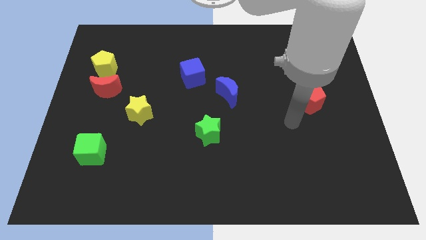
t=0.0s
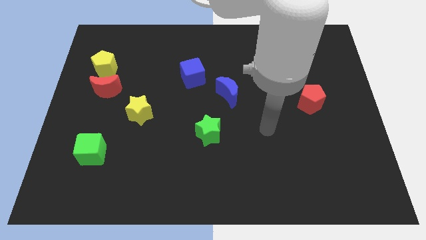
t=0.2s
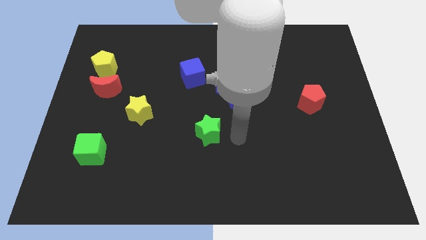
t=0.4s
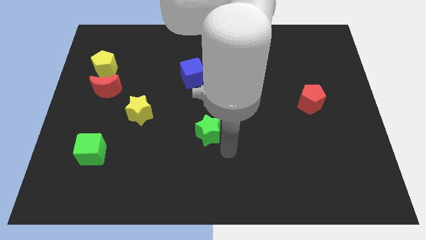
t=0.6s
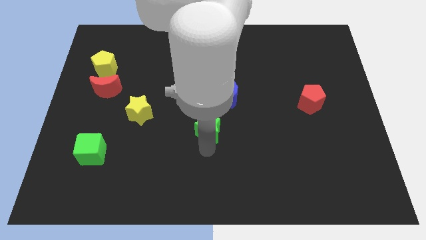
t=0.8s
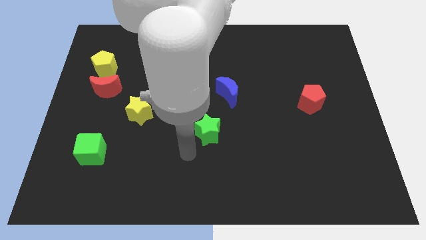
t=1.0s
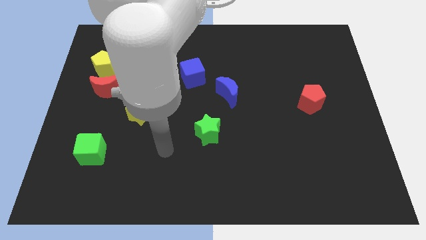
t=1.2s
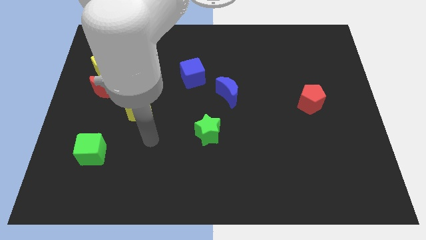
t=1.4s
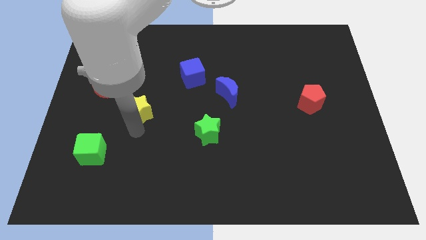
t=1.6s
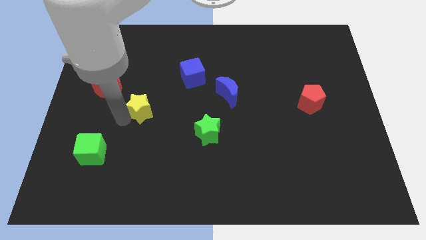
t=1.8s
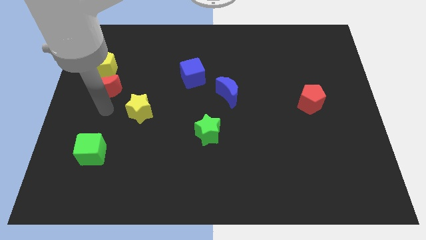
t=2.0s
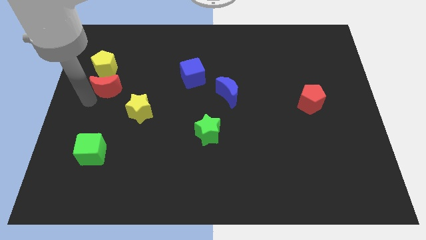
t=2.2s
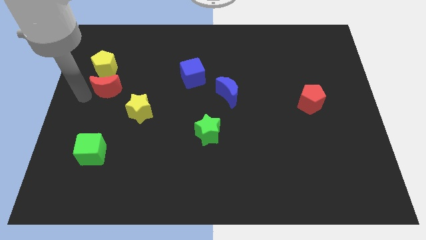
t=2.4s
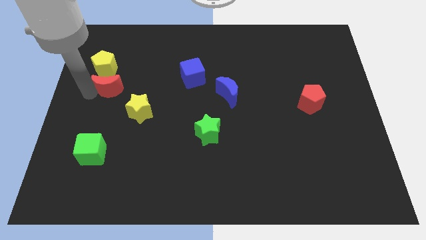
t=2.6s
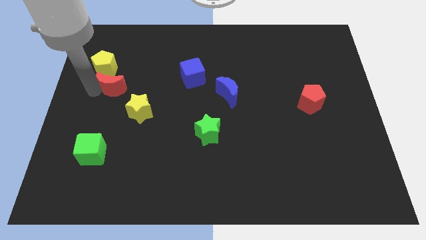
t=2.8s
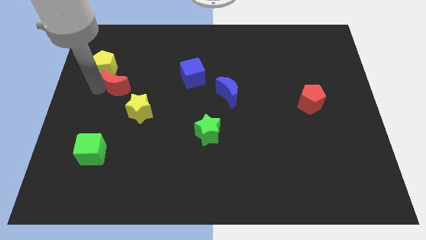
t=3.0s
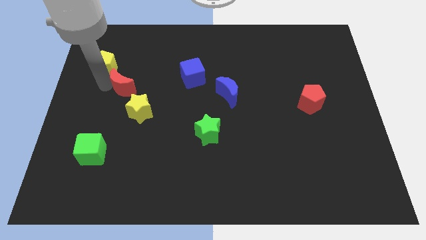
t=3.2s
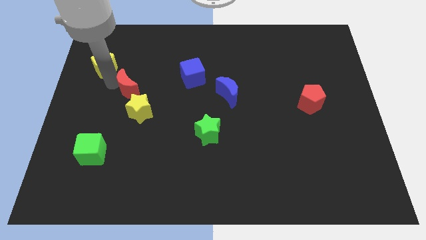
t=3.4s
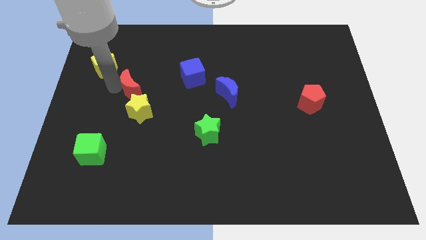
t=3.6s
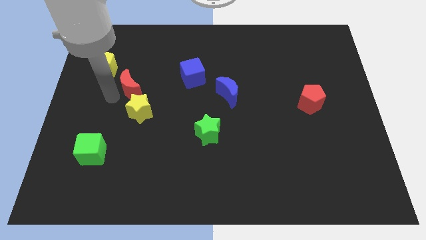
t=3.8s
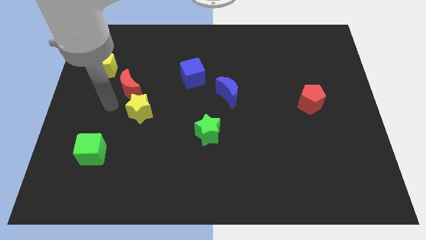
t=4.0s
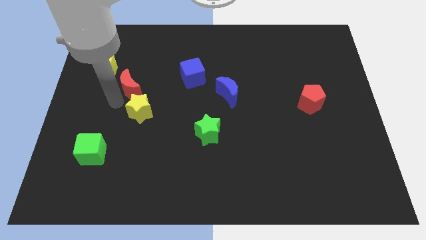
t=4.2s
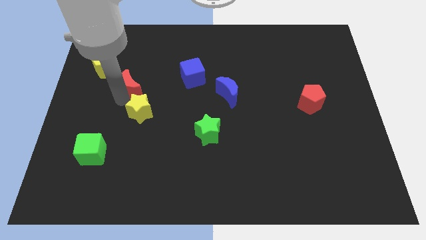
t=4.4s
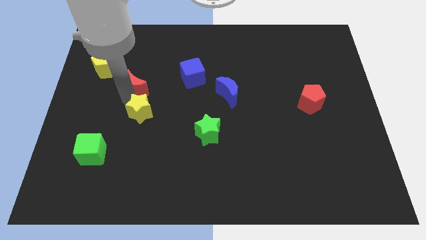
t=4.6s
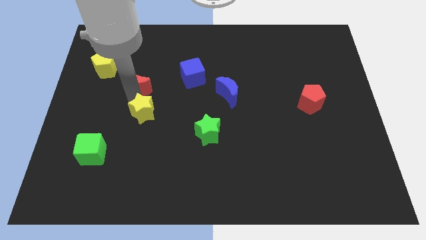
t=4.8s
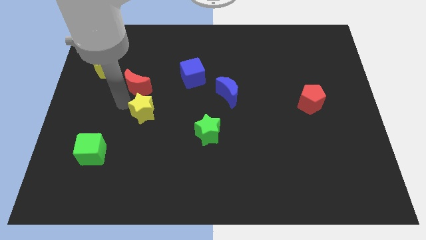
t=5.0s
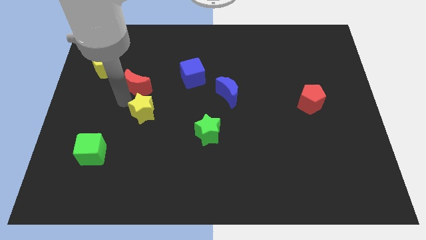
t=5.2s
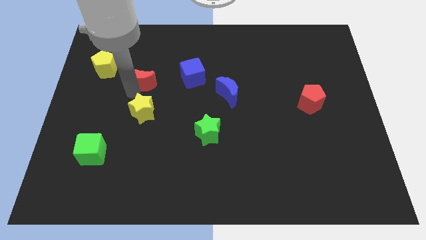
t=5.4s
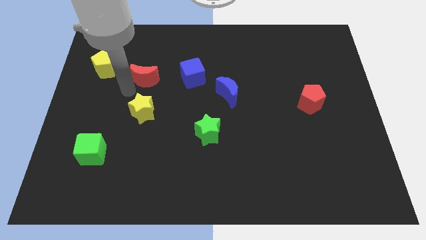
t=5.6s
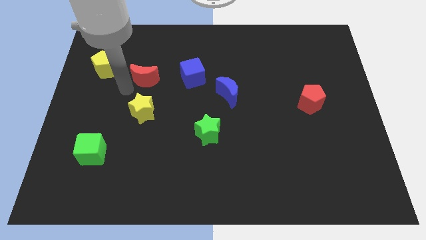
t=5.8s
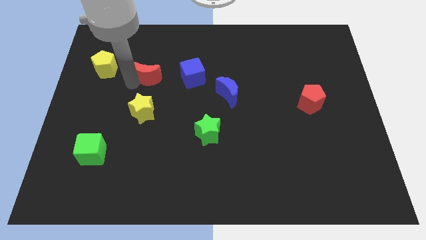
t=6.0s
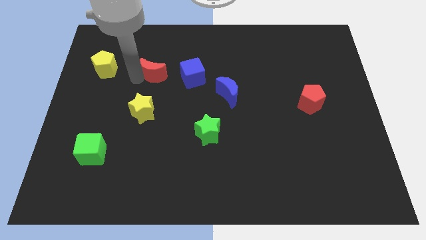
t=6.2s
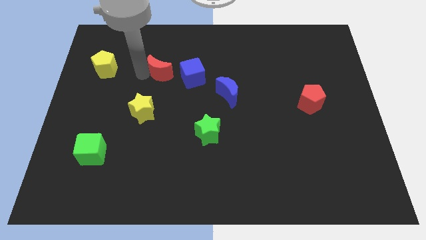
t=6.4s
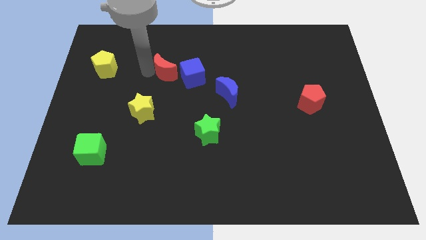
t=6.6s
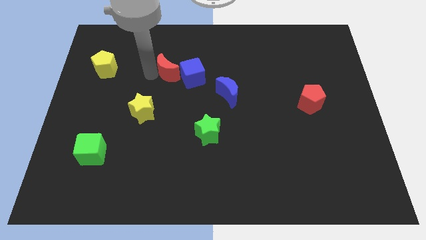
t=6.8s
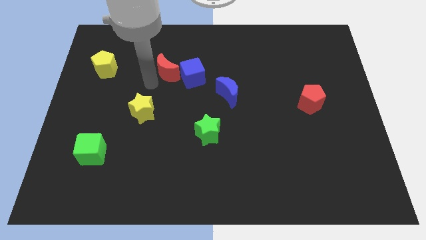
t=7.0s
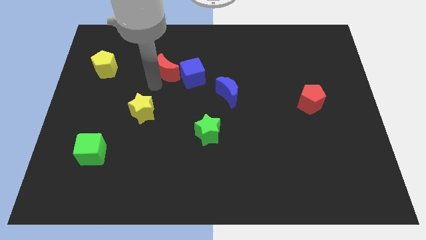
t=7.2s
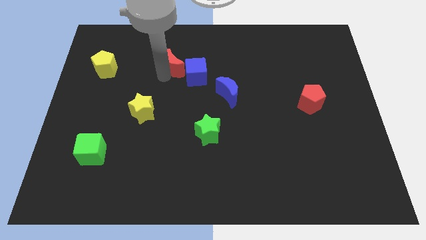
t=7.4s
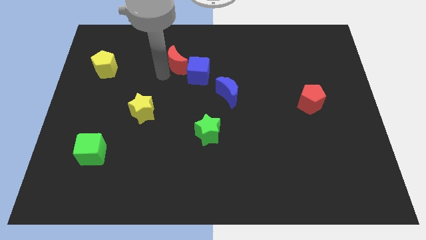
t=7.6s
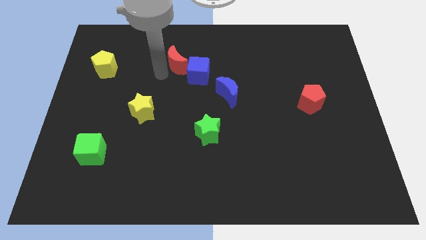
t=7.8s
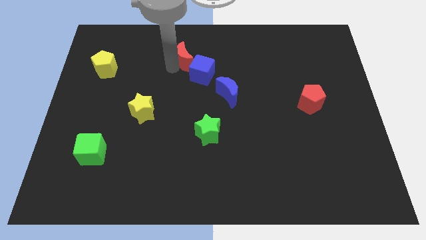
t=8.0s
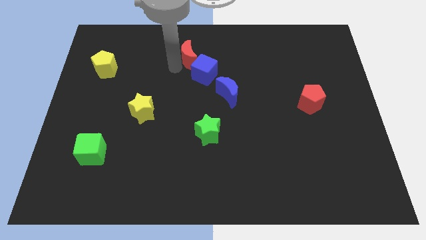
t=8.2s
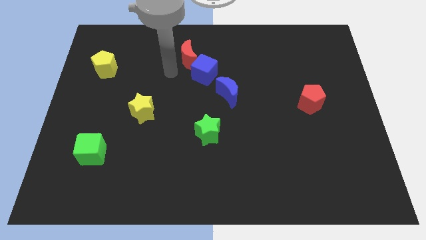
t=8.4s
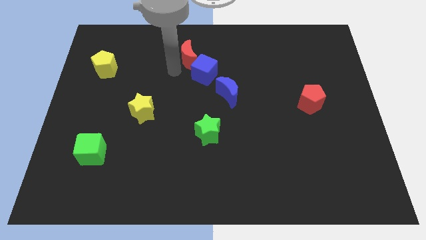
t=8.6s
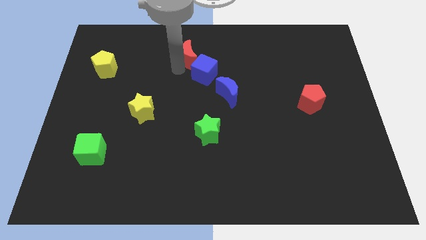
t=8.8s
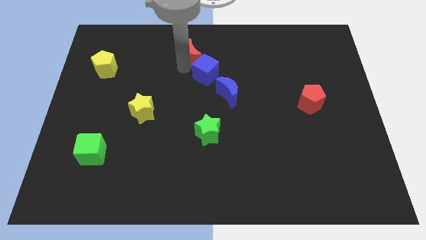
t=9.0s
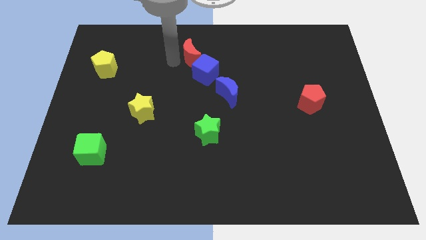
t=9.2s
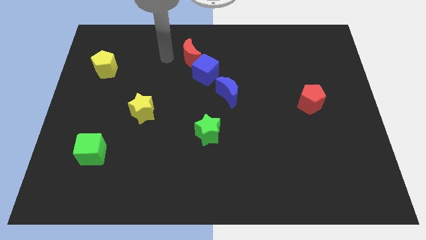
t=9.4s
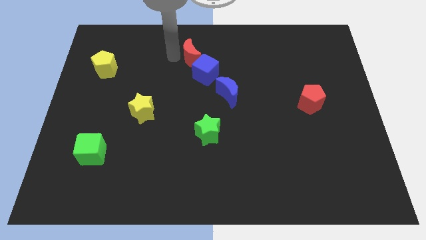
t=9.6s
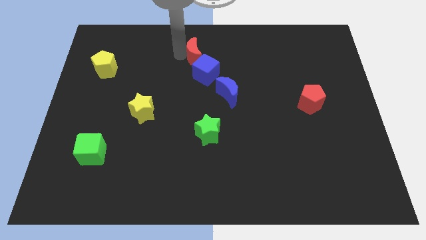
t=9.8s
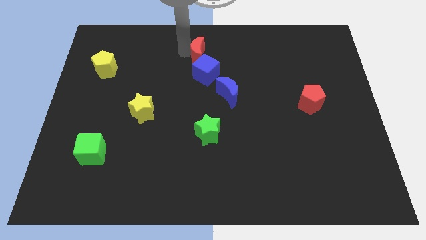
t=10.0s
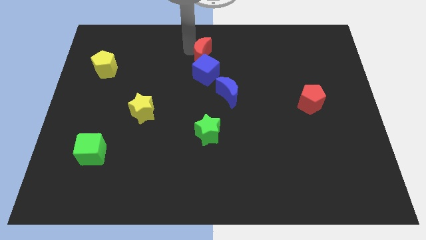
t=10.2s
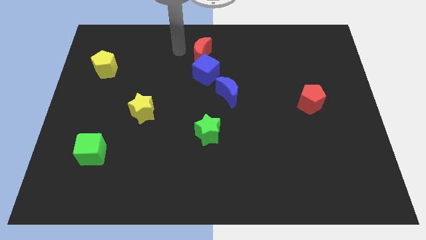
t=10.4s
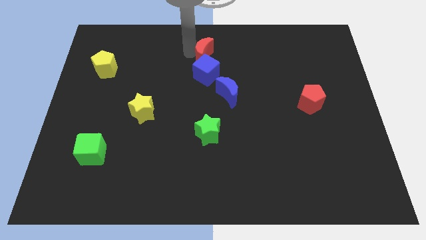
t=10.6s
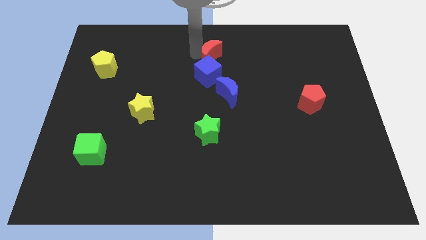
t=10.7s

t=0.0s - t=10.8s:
put the red moon to the top right side of the blue cube

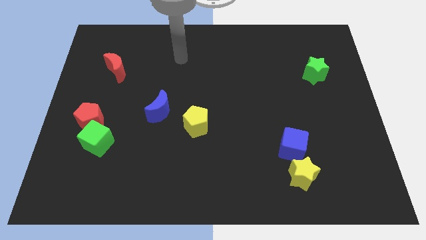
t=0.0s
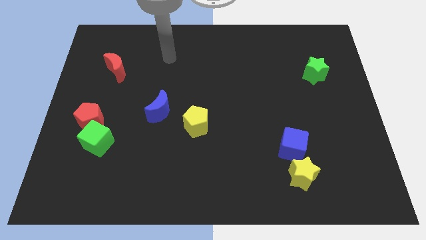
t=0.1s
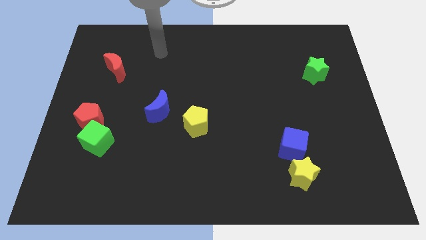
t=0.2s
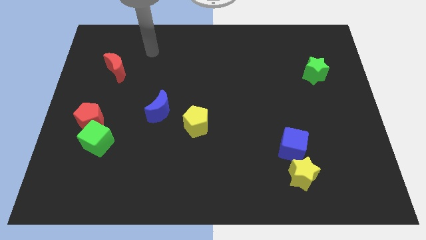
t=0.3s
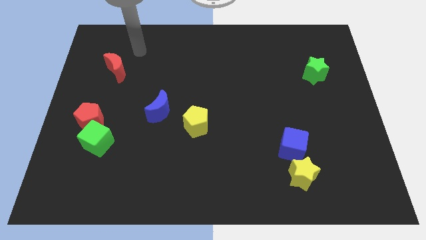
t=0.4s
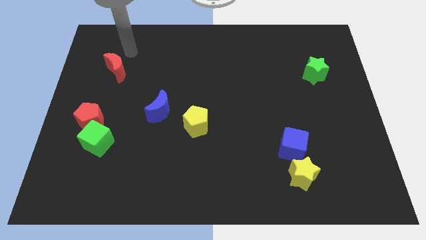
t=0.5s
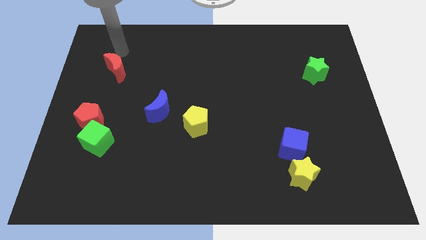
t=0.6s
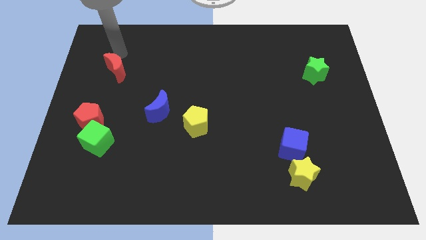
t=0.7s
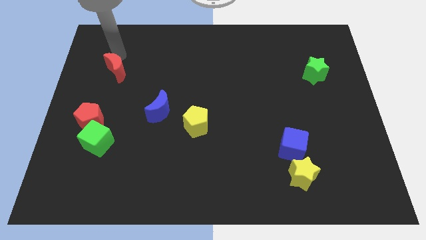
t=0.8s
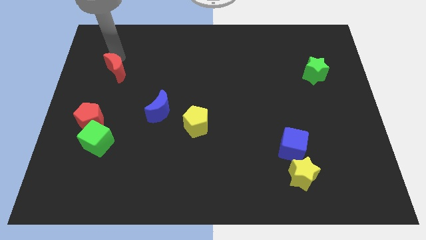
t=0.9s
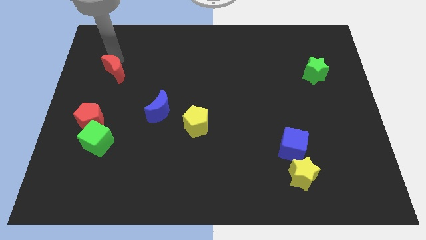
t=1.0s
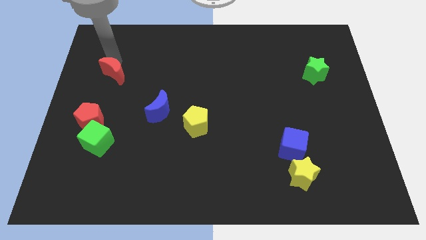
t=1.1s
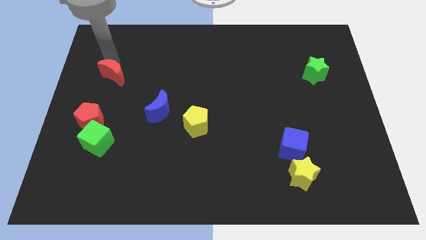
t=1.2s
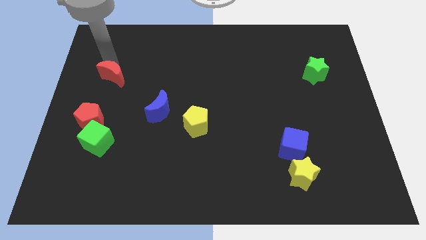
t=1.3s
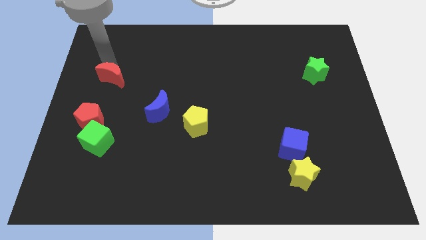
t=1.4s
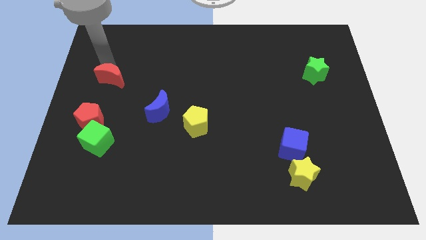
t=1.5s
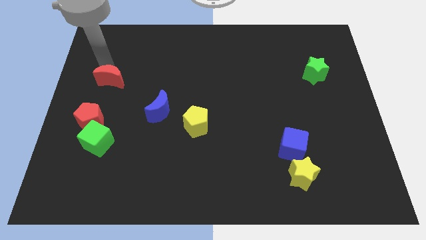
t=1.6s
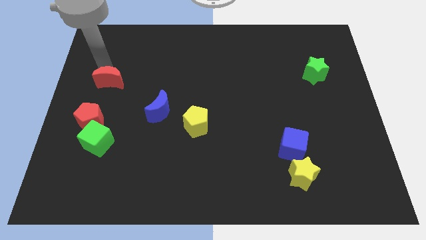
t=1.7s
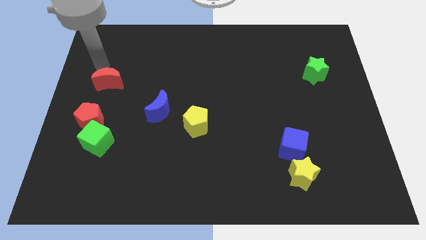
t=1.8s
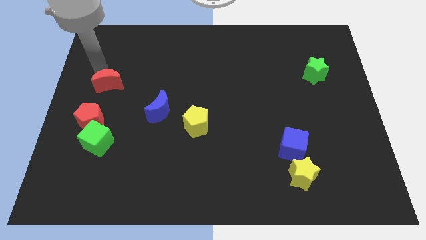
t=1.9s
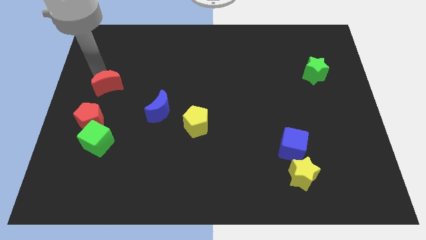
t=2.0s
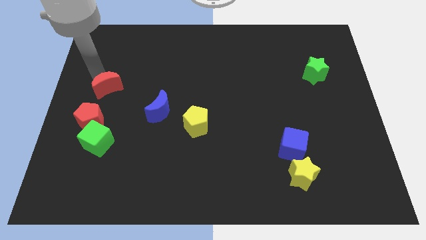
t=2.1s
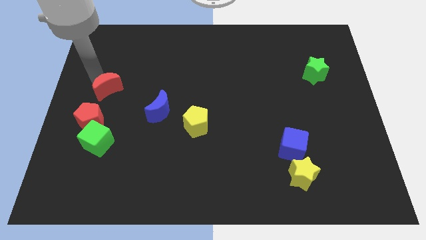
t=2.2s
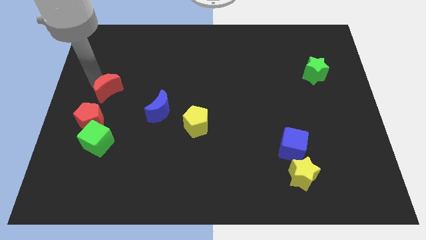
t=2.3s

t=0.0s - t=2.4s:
put the red moon to the top right of the red pentagon
